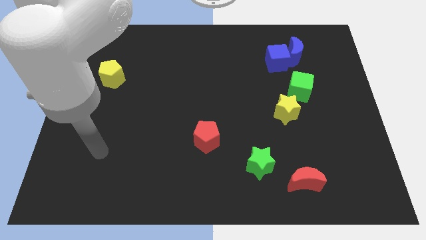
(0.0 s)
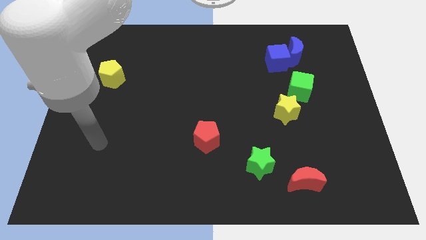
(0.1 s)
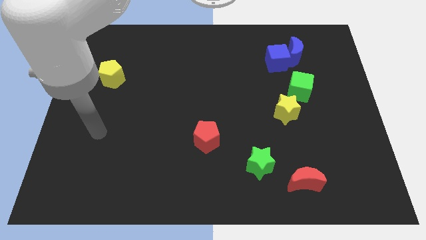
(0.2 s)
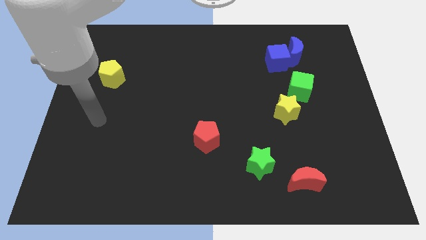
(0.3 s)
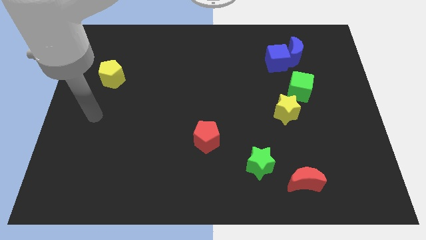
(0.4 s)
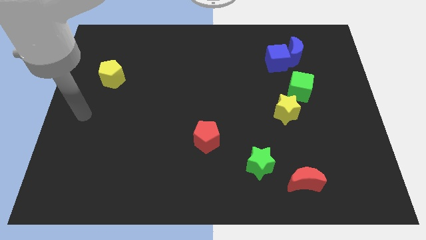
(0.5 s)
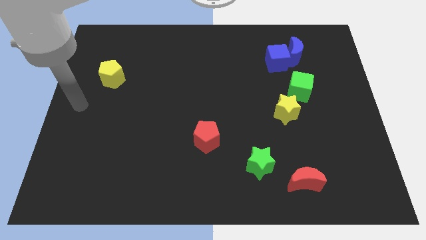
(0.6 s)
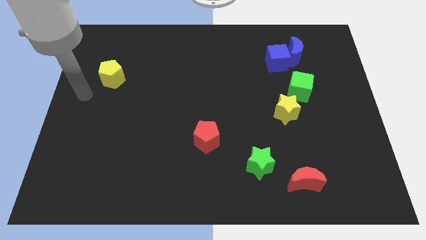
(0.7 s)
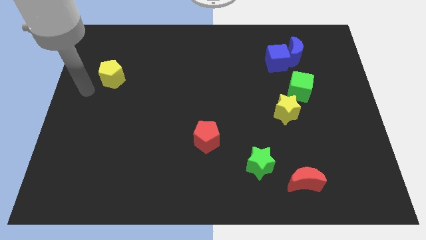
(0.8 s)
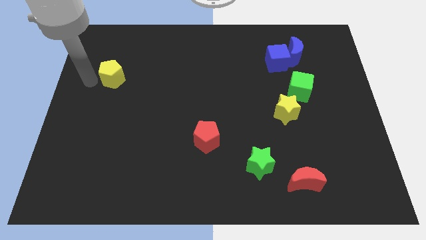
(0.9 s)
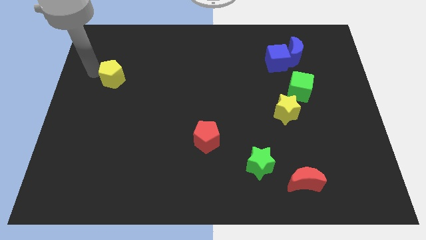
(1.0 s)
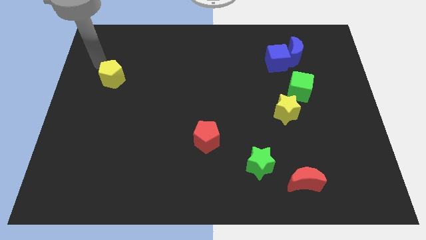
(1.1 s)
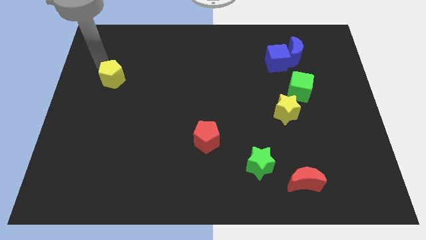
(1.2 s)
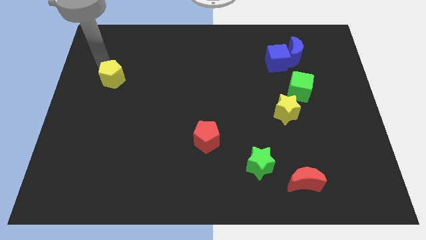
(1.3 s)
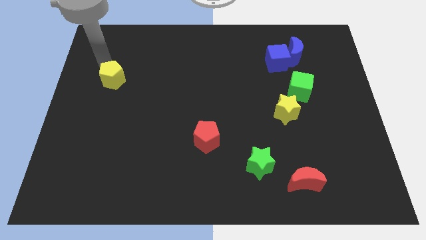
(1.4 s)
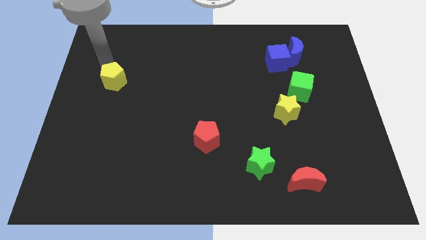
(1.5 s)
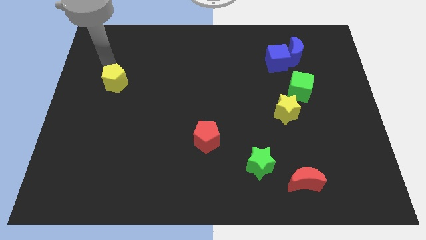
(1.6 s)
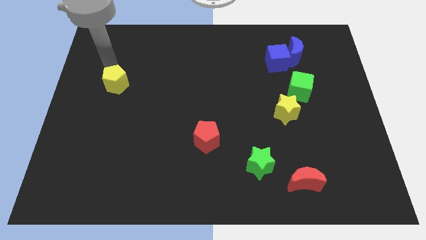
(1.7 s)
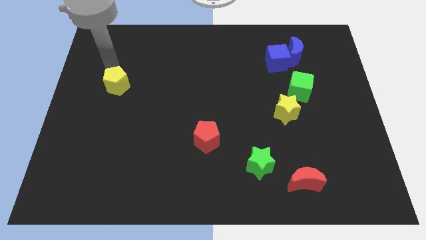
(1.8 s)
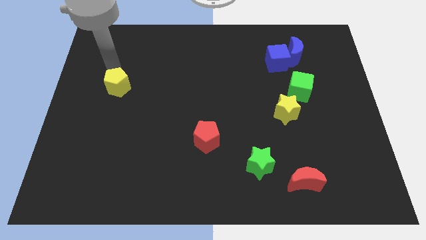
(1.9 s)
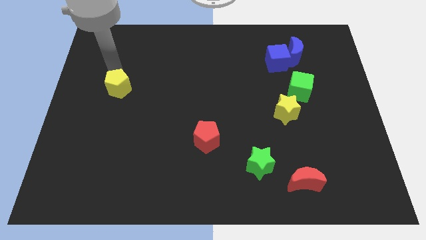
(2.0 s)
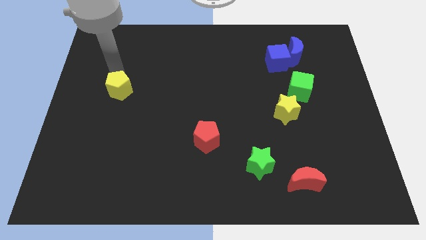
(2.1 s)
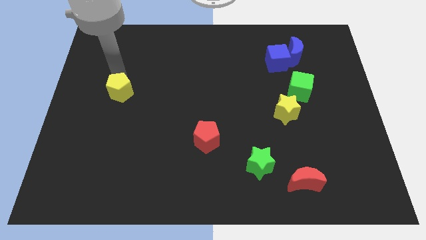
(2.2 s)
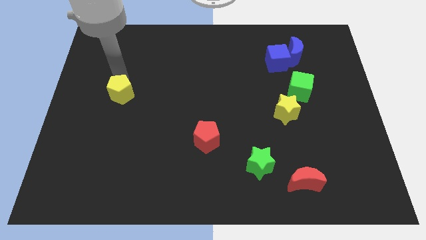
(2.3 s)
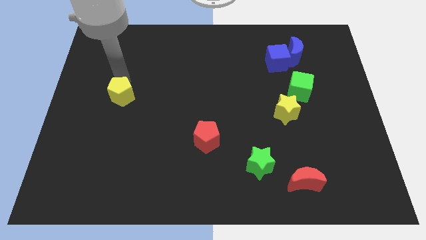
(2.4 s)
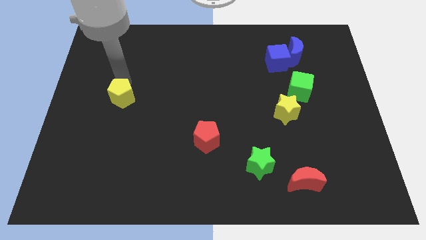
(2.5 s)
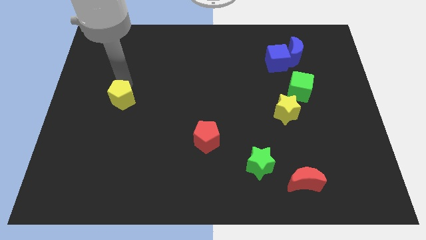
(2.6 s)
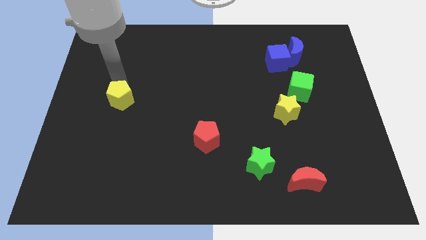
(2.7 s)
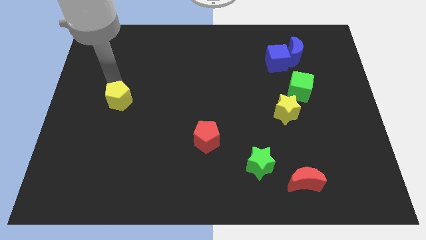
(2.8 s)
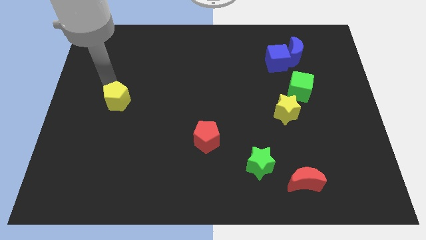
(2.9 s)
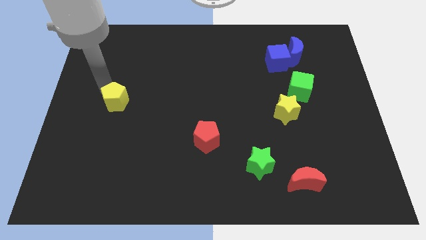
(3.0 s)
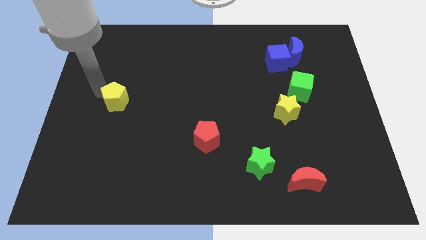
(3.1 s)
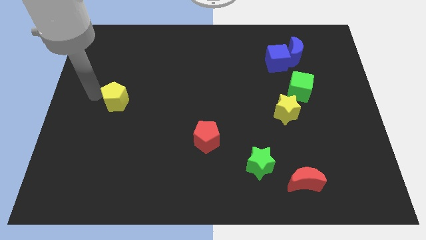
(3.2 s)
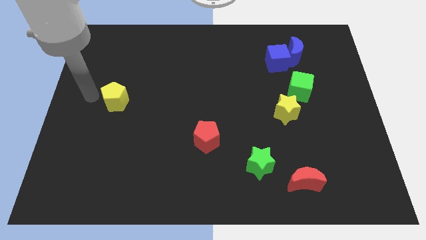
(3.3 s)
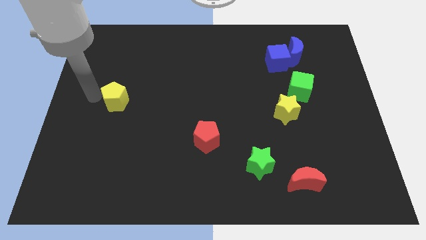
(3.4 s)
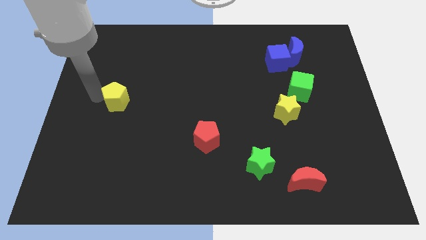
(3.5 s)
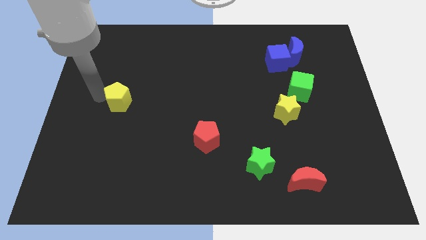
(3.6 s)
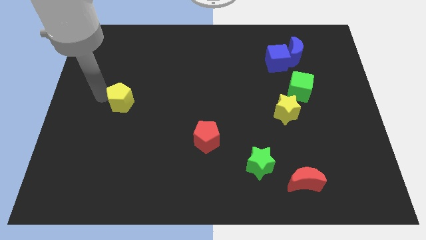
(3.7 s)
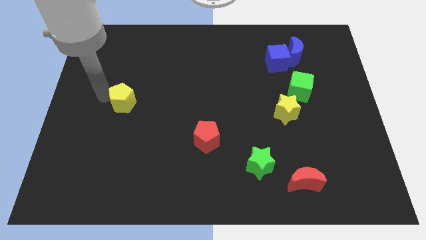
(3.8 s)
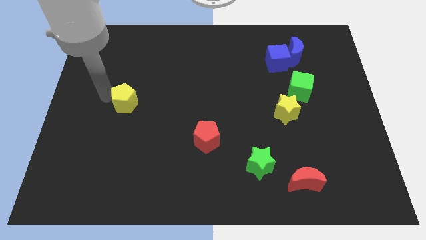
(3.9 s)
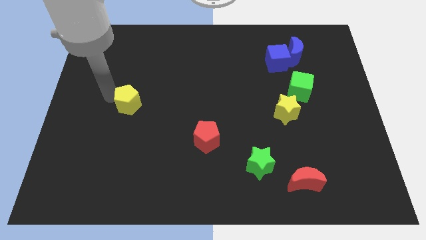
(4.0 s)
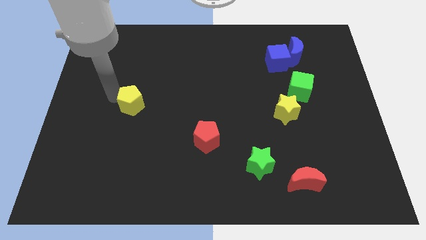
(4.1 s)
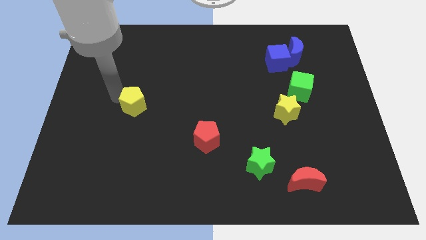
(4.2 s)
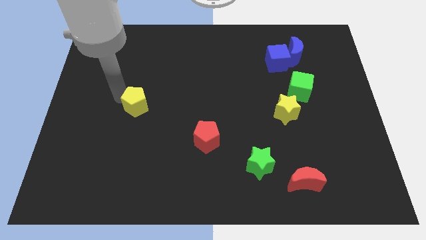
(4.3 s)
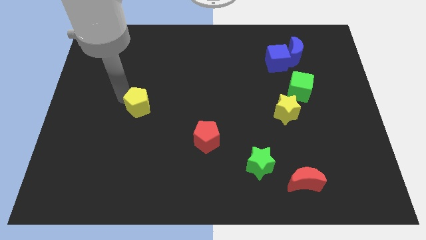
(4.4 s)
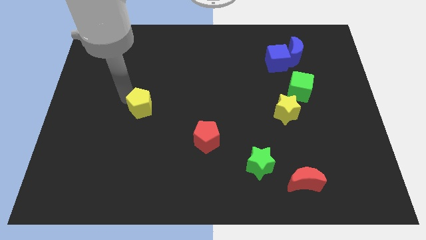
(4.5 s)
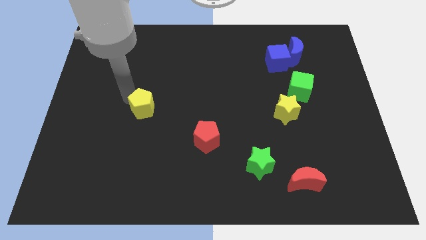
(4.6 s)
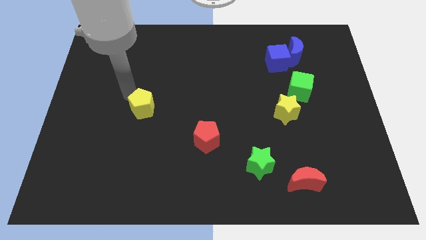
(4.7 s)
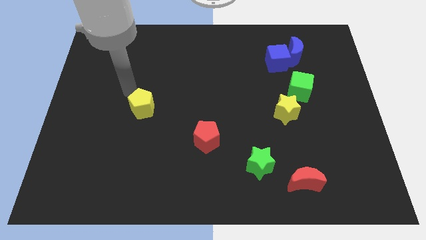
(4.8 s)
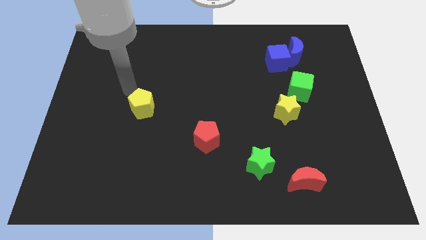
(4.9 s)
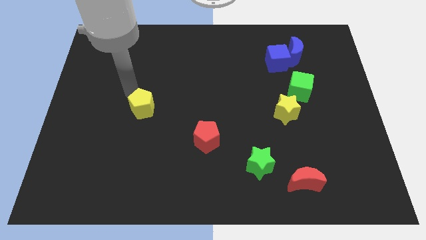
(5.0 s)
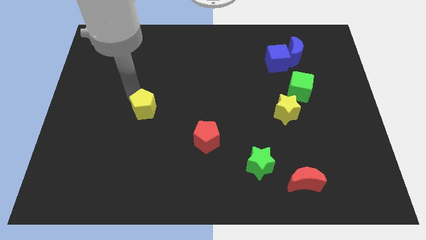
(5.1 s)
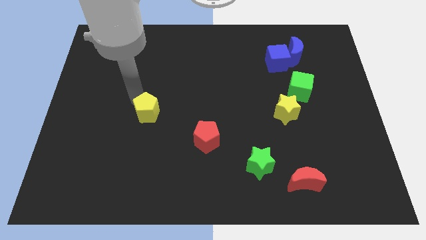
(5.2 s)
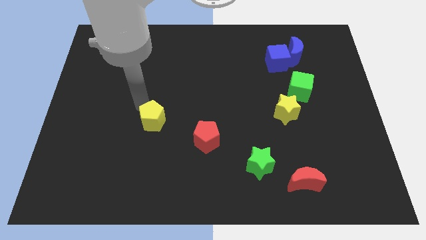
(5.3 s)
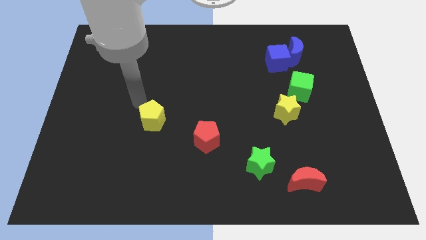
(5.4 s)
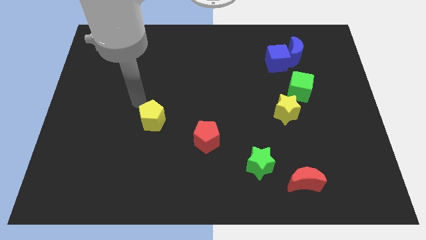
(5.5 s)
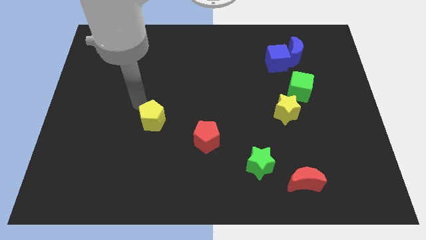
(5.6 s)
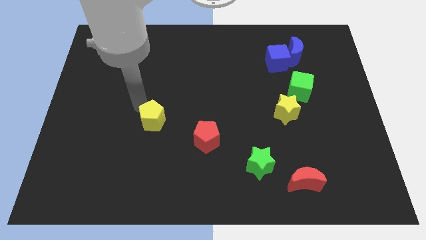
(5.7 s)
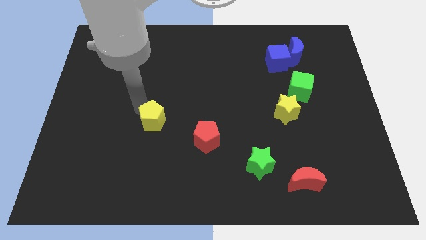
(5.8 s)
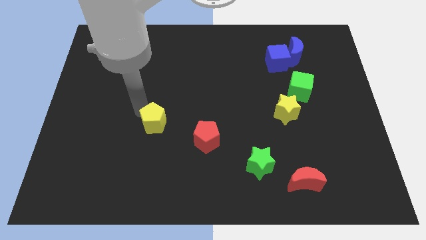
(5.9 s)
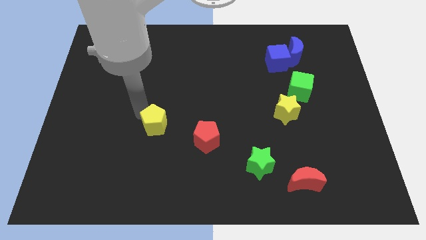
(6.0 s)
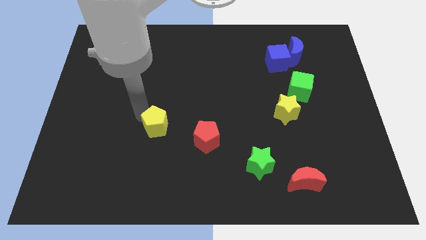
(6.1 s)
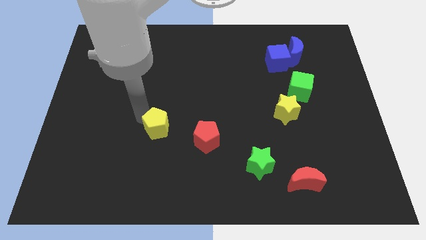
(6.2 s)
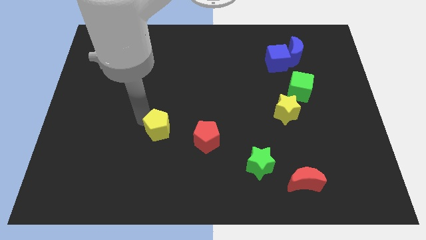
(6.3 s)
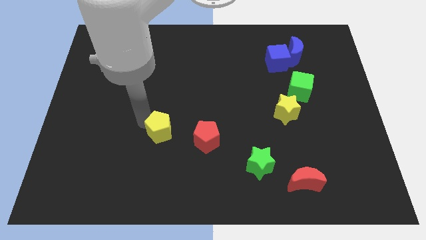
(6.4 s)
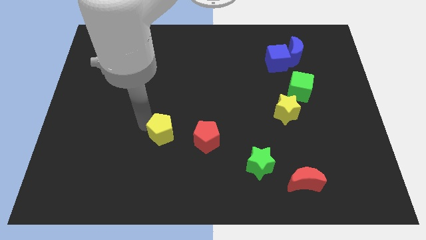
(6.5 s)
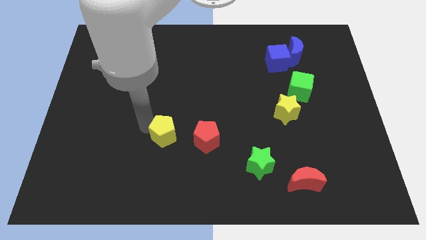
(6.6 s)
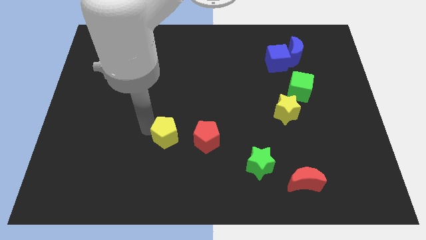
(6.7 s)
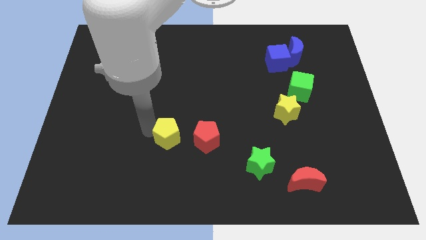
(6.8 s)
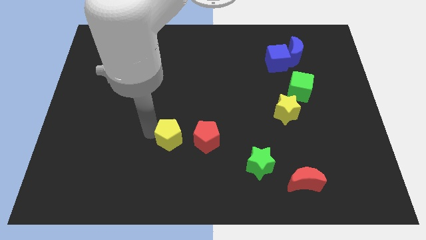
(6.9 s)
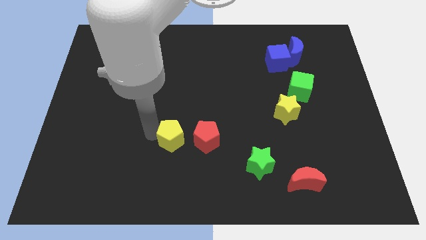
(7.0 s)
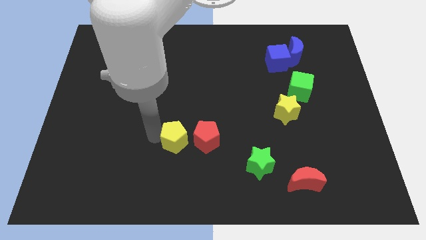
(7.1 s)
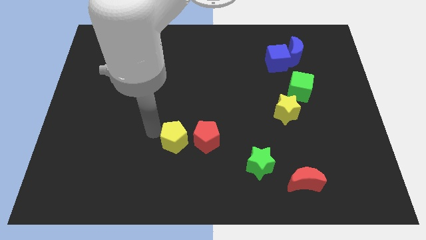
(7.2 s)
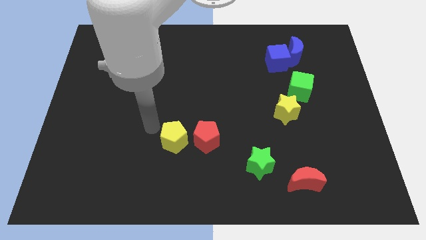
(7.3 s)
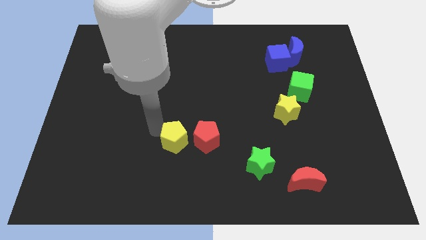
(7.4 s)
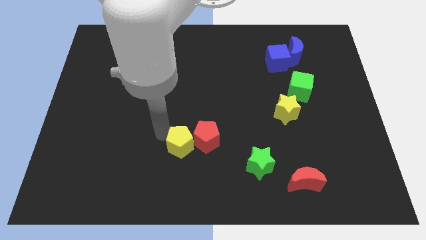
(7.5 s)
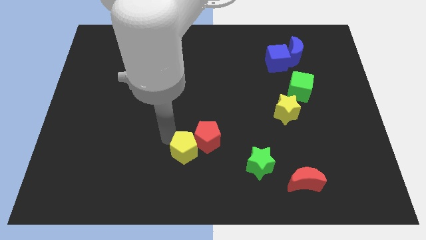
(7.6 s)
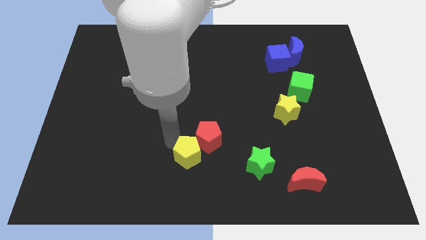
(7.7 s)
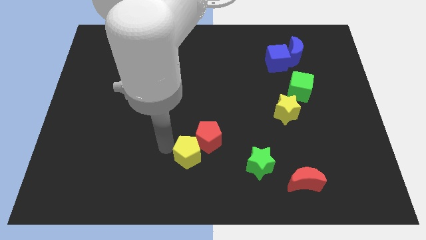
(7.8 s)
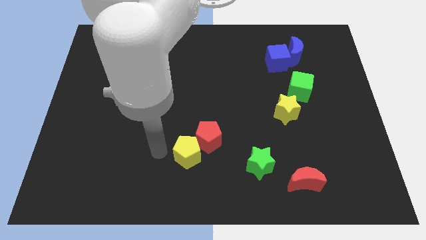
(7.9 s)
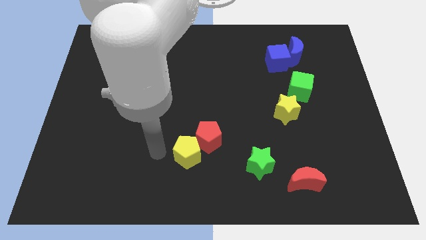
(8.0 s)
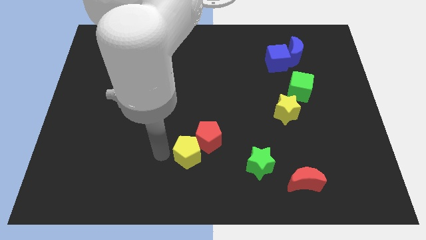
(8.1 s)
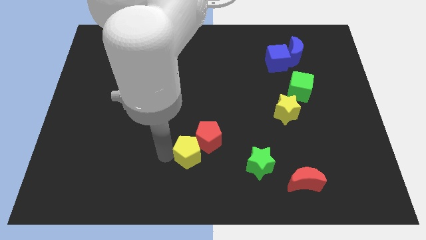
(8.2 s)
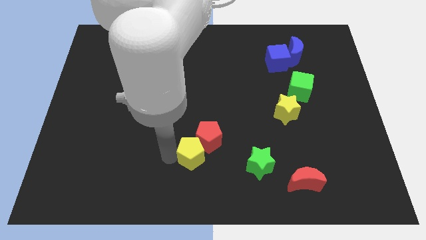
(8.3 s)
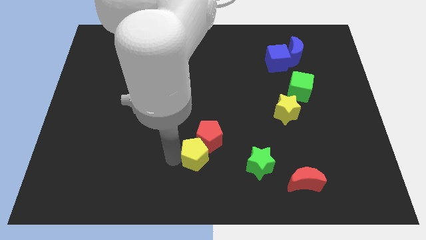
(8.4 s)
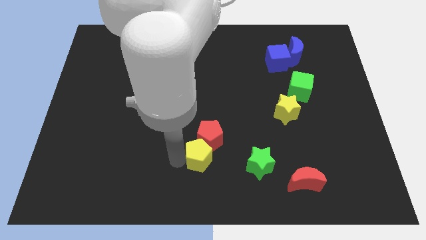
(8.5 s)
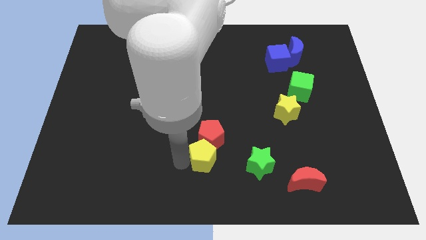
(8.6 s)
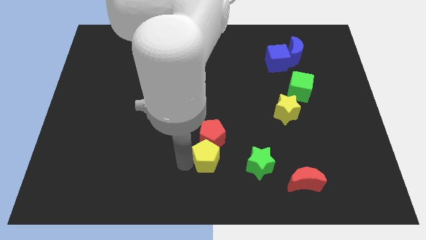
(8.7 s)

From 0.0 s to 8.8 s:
slide the yellow pentagon diagonally down and to the right of the red pentagon
